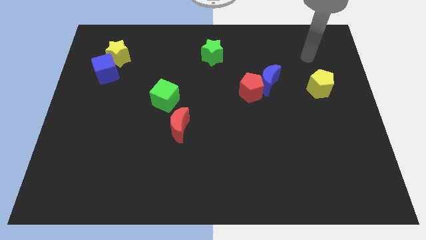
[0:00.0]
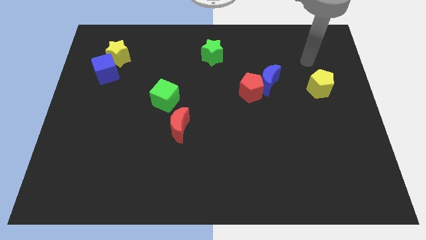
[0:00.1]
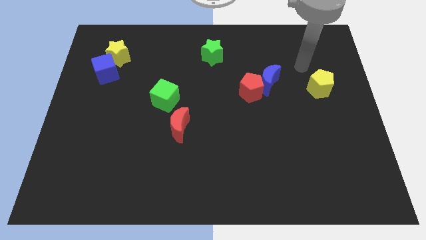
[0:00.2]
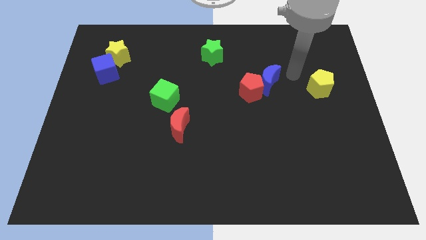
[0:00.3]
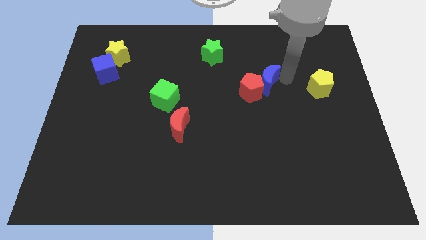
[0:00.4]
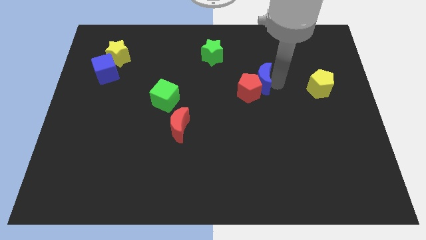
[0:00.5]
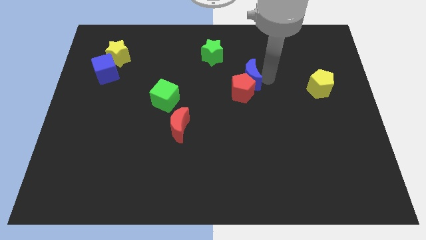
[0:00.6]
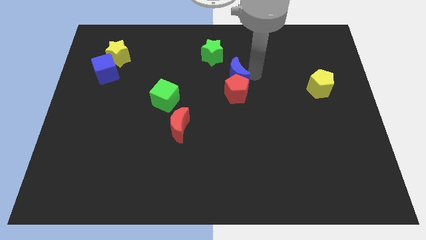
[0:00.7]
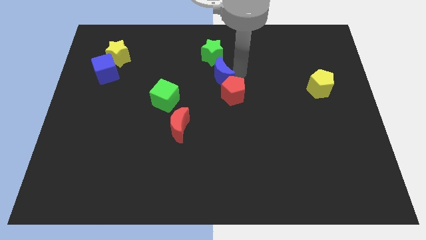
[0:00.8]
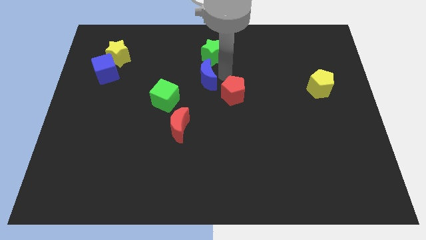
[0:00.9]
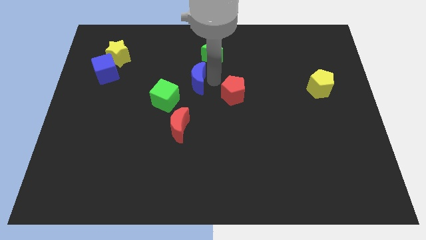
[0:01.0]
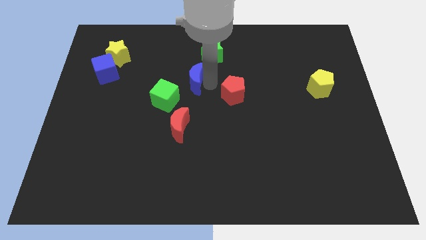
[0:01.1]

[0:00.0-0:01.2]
separate the red pentagon from the blue moon

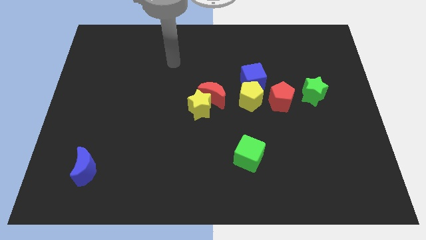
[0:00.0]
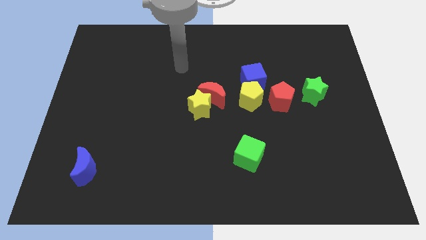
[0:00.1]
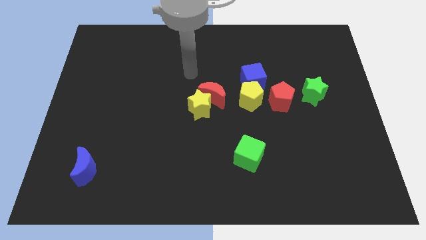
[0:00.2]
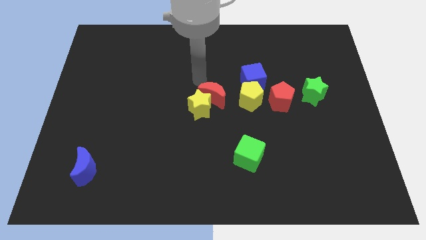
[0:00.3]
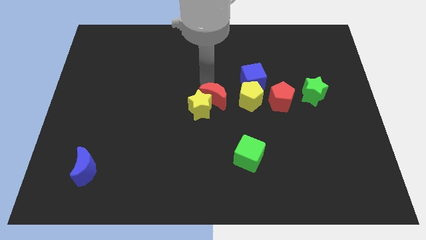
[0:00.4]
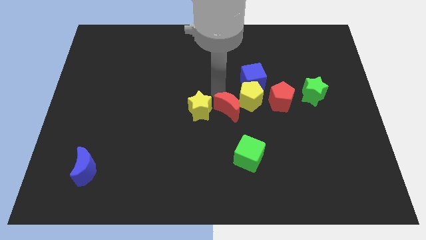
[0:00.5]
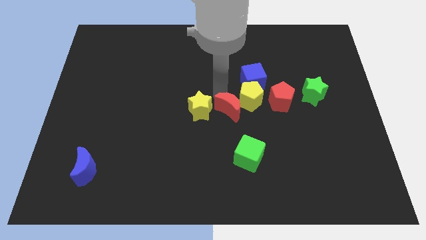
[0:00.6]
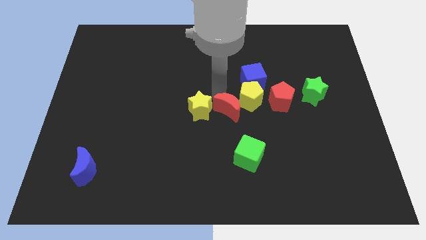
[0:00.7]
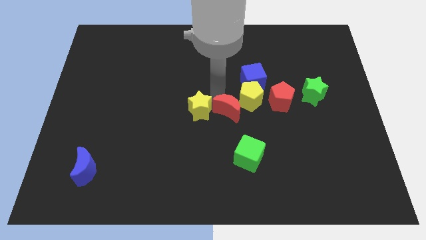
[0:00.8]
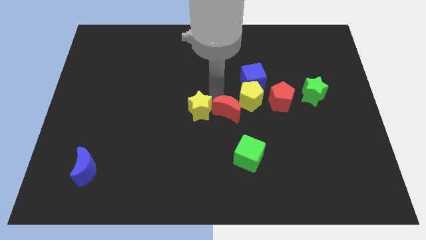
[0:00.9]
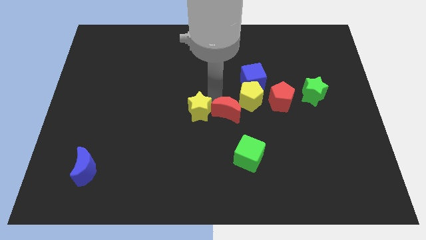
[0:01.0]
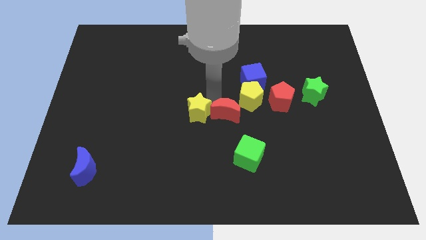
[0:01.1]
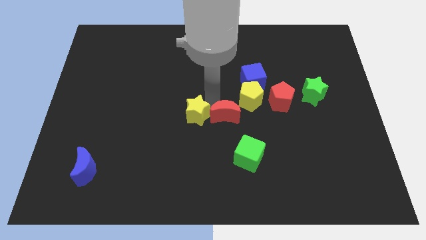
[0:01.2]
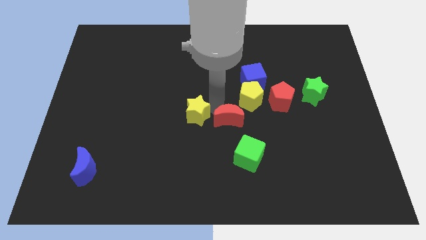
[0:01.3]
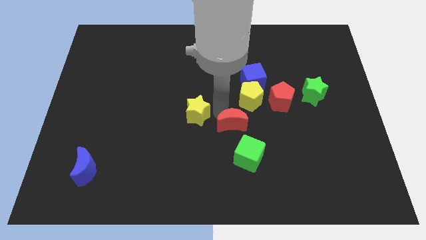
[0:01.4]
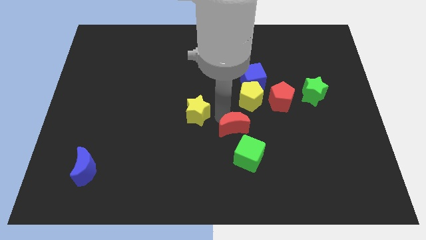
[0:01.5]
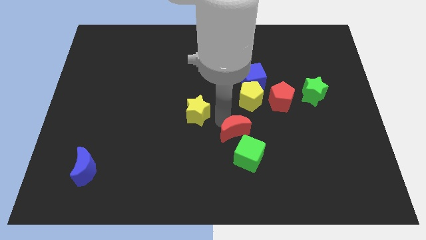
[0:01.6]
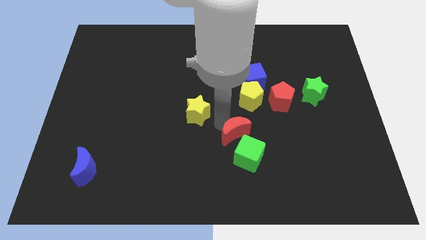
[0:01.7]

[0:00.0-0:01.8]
move the yellow star away from the red moon

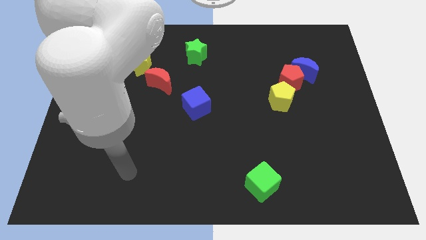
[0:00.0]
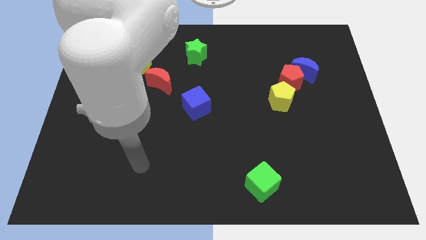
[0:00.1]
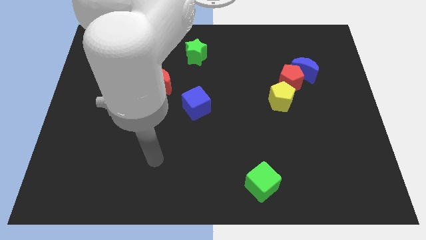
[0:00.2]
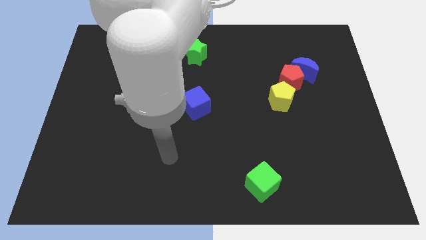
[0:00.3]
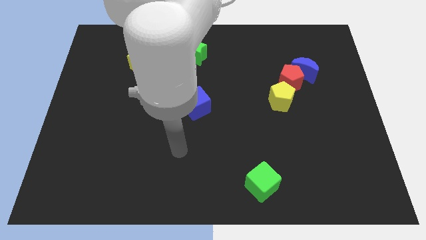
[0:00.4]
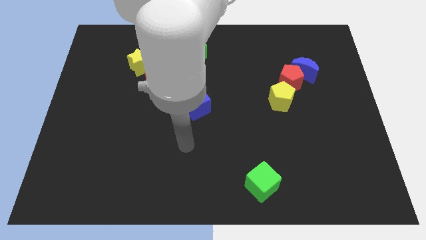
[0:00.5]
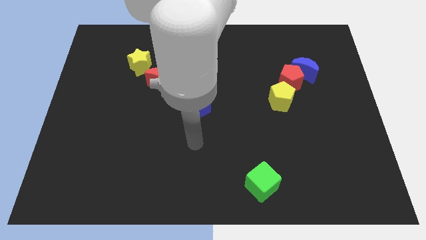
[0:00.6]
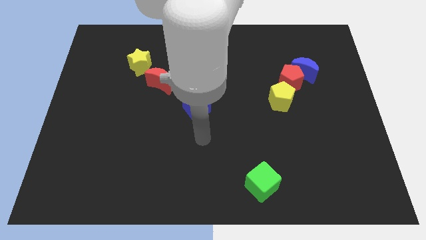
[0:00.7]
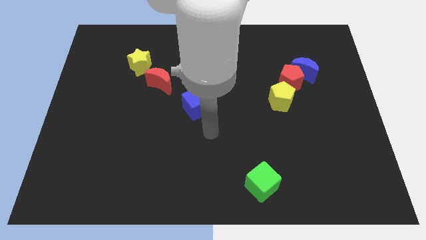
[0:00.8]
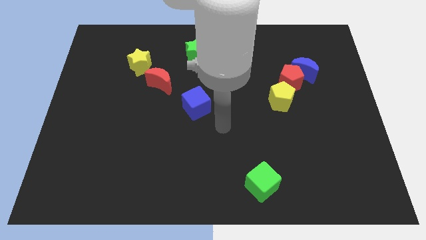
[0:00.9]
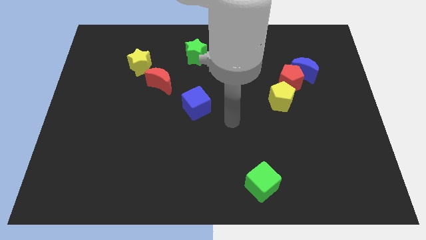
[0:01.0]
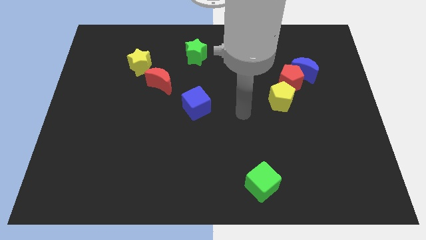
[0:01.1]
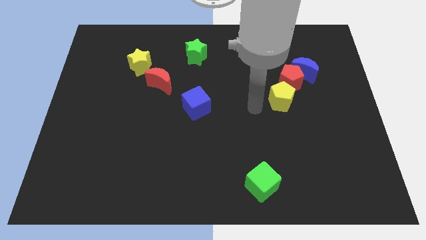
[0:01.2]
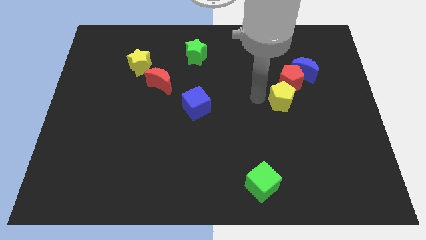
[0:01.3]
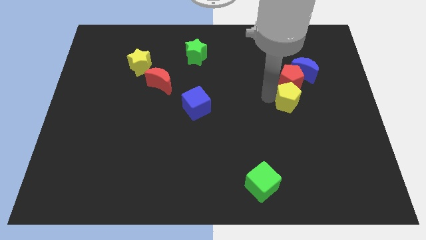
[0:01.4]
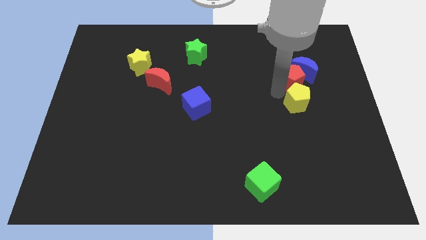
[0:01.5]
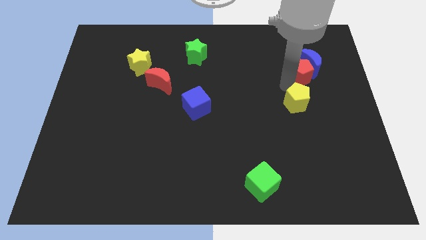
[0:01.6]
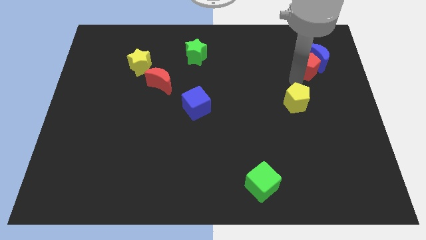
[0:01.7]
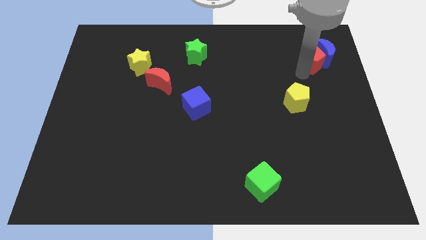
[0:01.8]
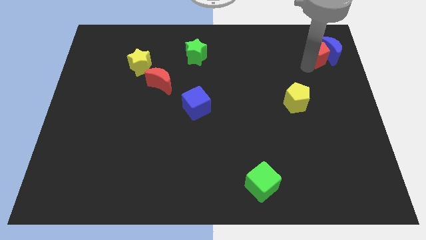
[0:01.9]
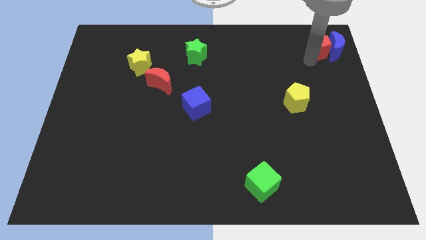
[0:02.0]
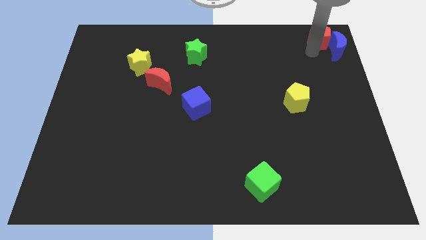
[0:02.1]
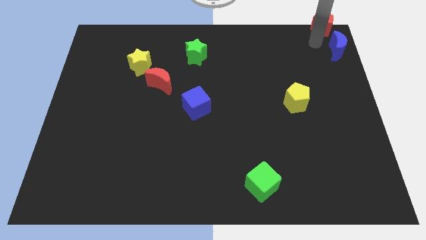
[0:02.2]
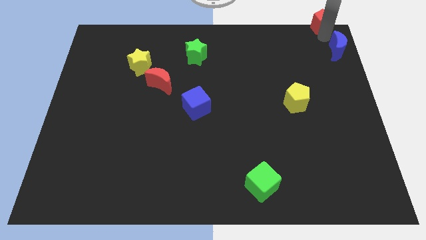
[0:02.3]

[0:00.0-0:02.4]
move the blue moon away from the red pentagon

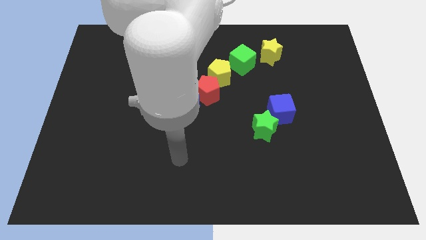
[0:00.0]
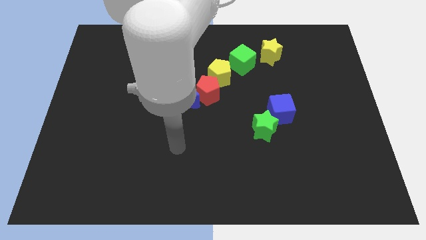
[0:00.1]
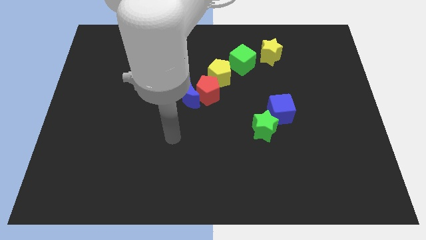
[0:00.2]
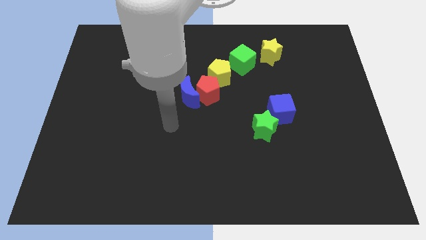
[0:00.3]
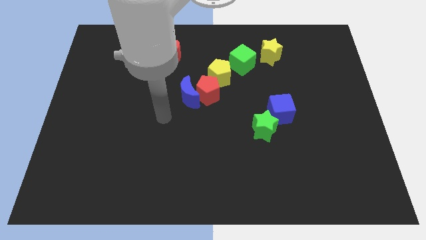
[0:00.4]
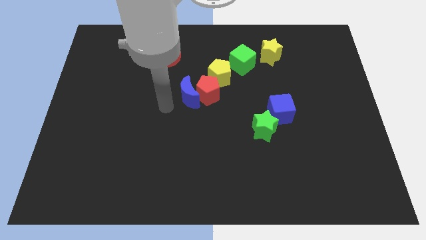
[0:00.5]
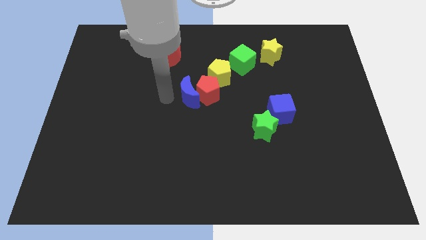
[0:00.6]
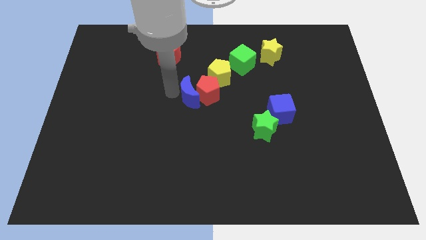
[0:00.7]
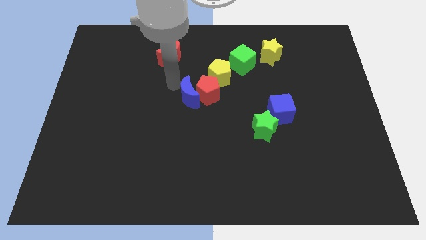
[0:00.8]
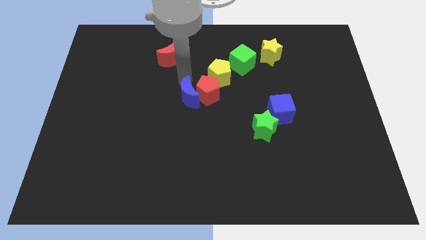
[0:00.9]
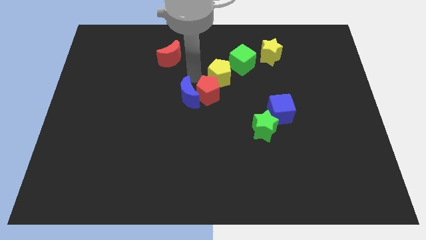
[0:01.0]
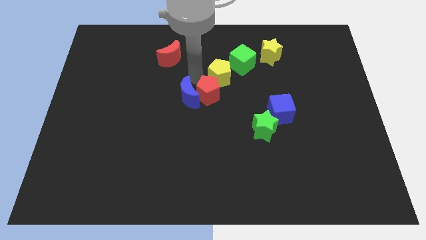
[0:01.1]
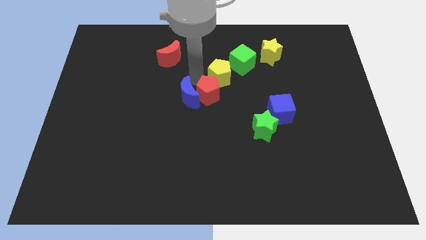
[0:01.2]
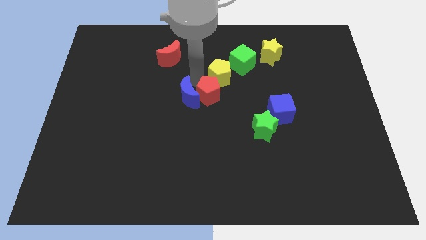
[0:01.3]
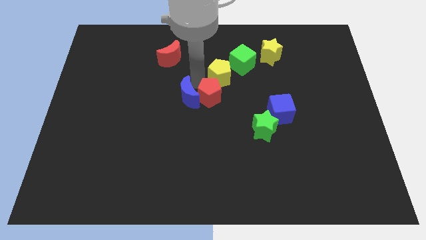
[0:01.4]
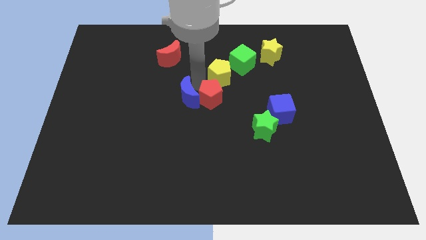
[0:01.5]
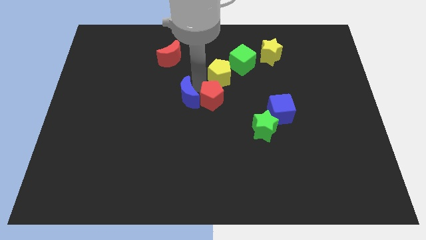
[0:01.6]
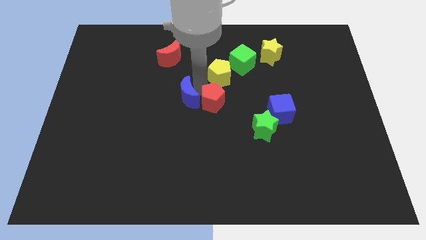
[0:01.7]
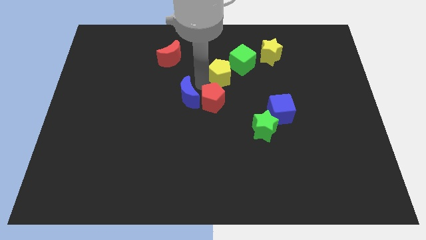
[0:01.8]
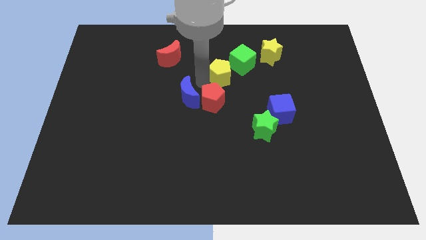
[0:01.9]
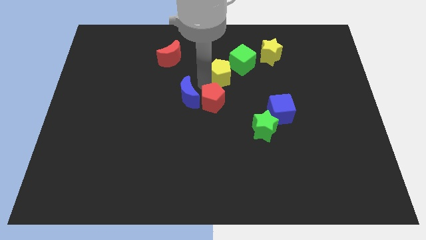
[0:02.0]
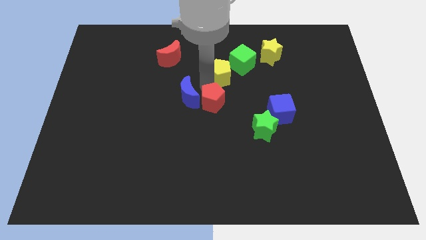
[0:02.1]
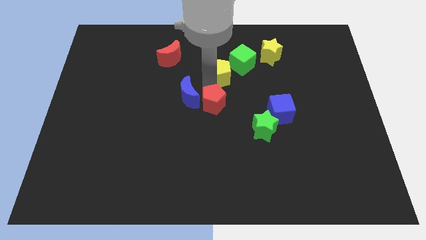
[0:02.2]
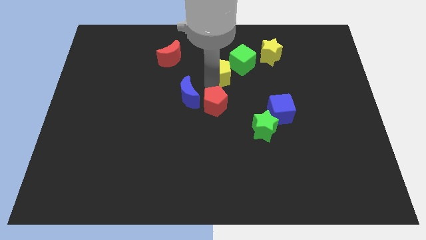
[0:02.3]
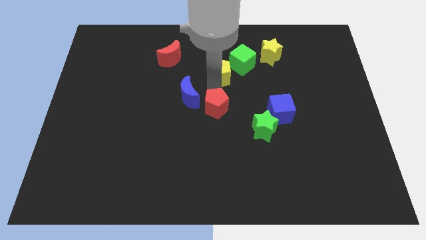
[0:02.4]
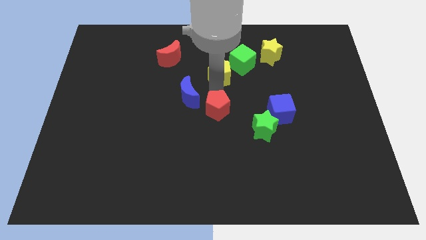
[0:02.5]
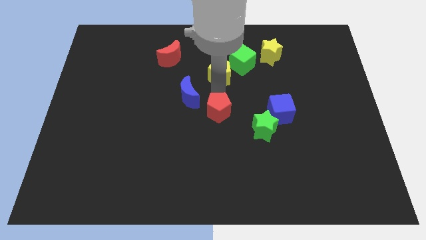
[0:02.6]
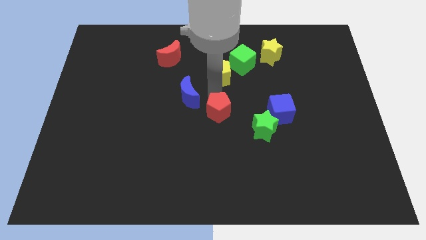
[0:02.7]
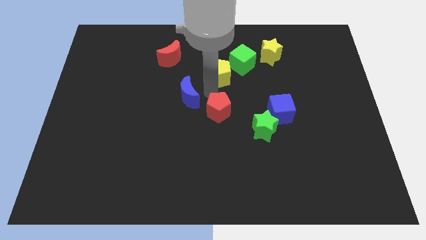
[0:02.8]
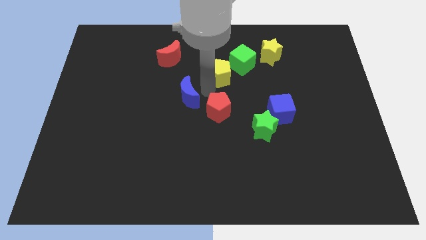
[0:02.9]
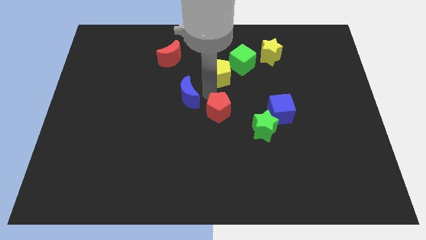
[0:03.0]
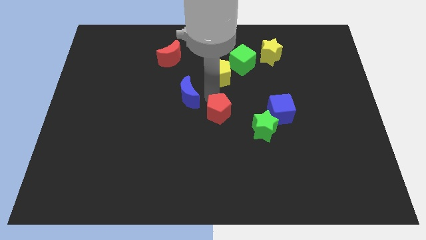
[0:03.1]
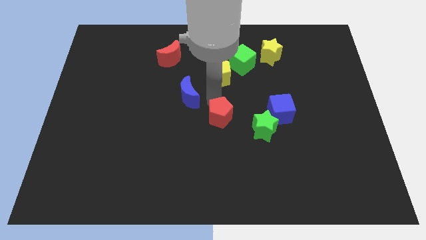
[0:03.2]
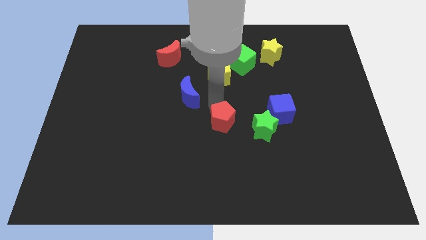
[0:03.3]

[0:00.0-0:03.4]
separate the red pentagon from the blue moon and yellow pentagon

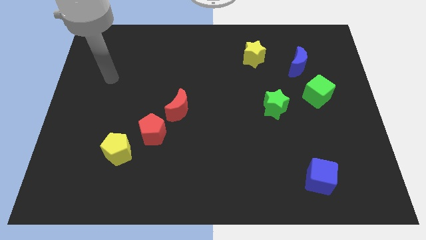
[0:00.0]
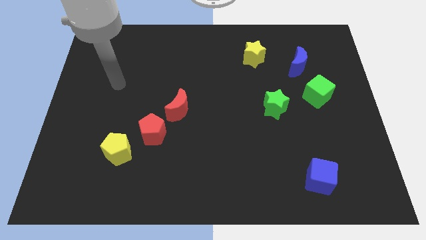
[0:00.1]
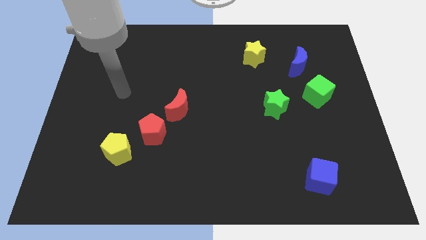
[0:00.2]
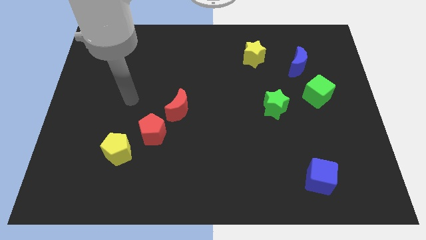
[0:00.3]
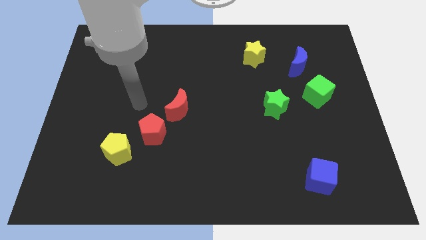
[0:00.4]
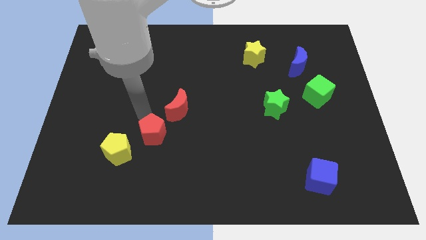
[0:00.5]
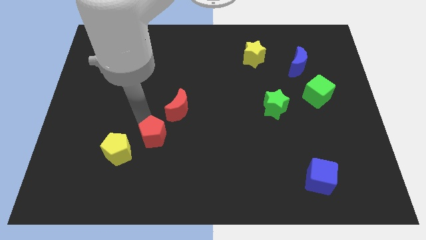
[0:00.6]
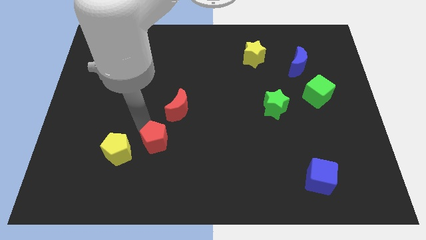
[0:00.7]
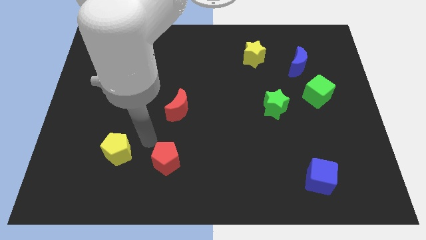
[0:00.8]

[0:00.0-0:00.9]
separate the yellow pentagon from the red pentagon
